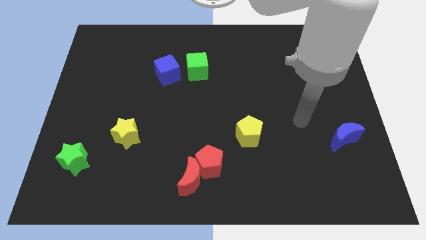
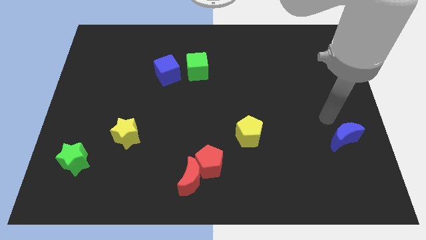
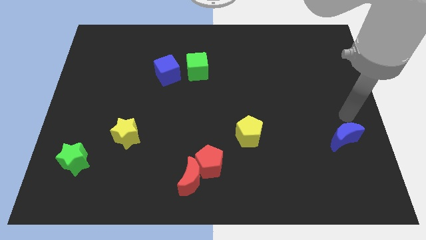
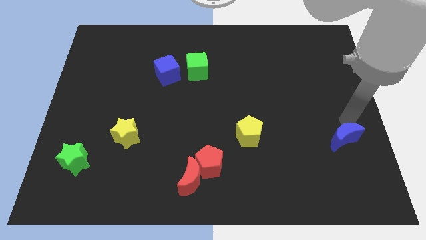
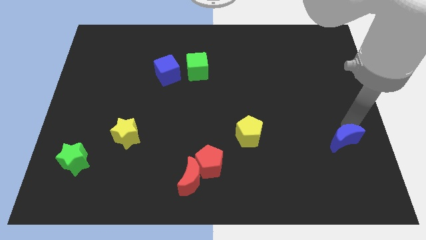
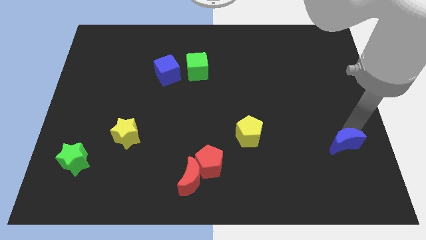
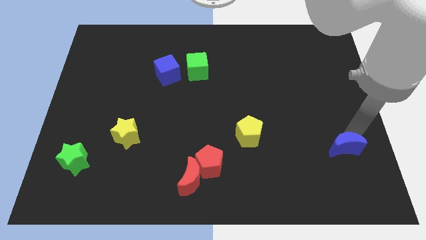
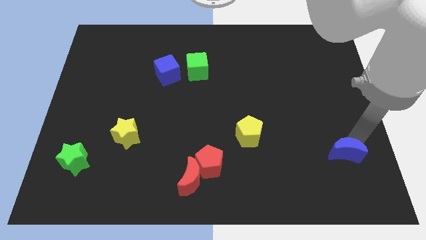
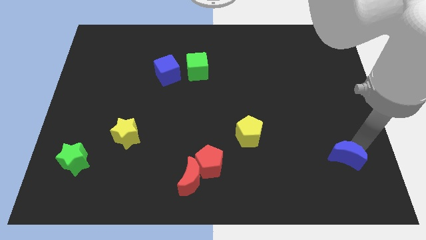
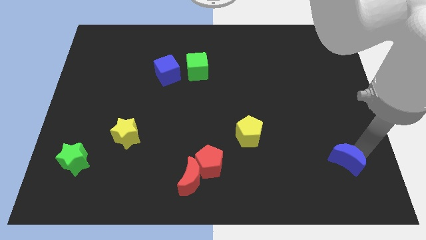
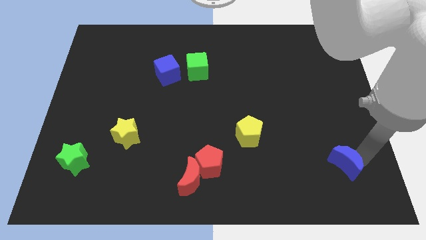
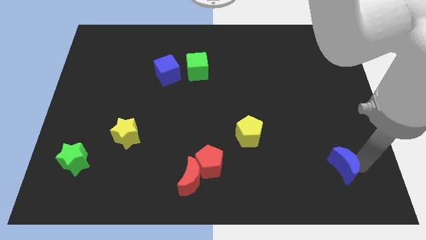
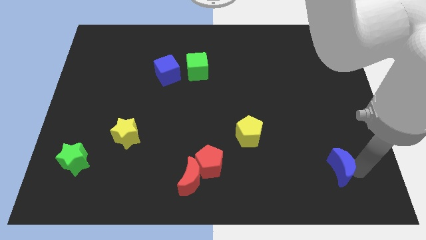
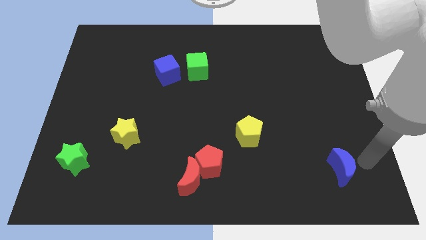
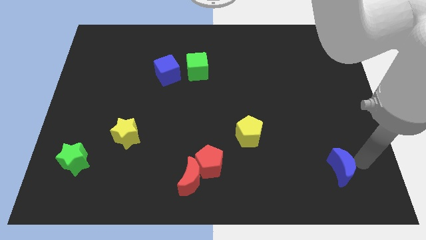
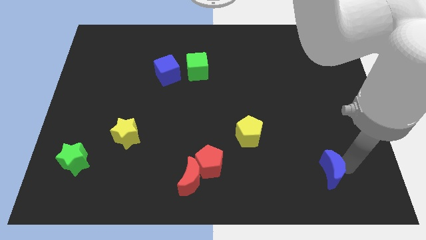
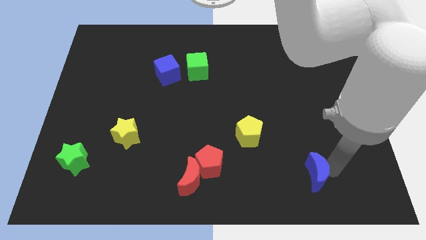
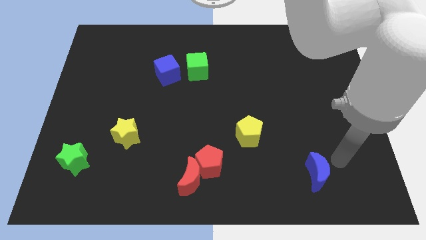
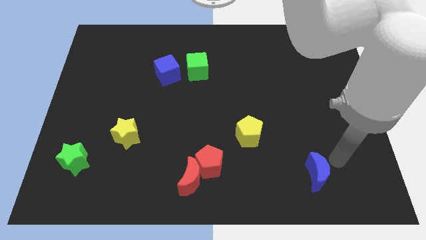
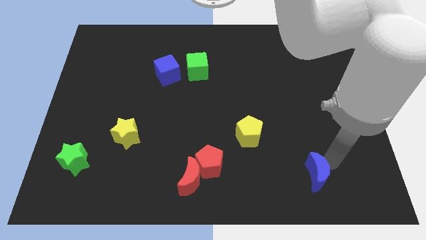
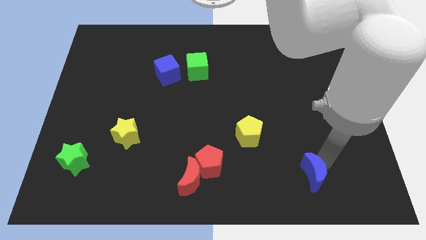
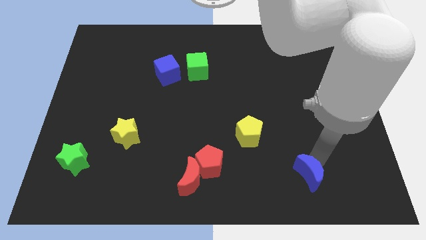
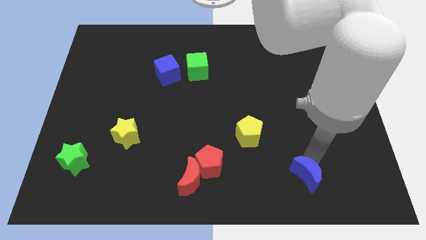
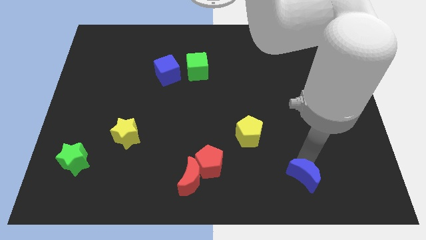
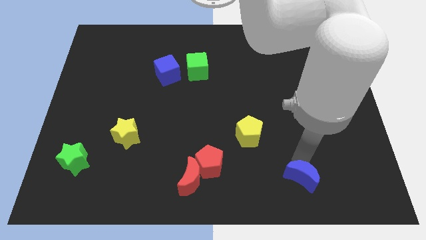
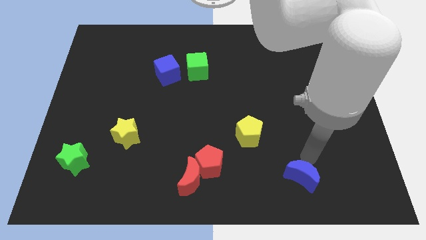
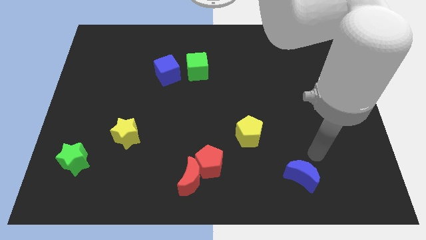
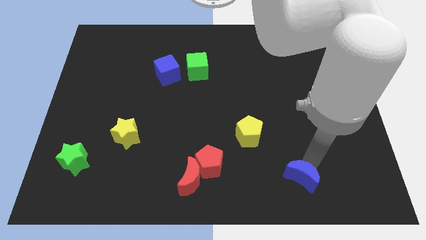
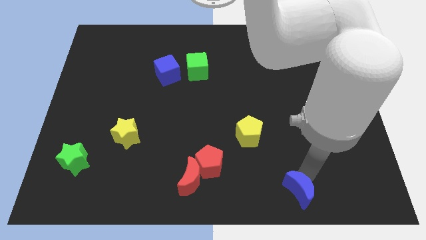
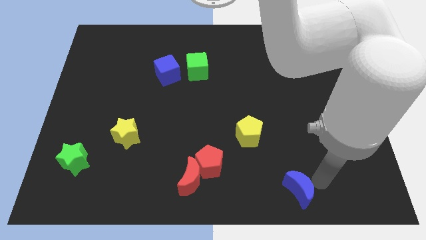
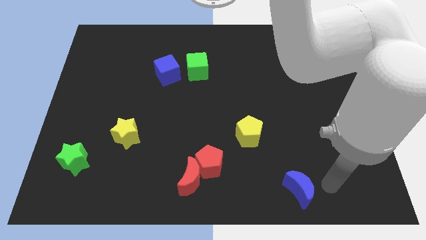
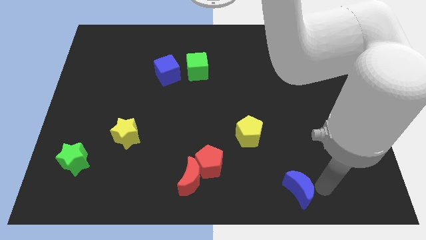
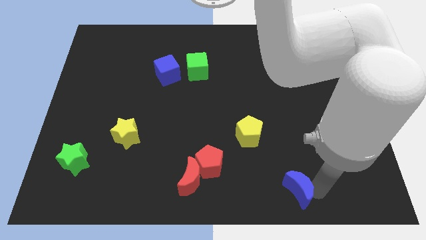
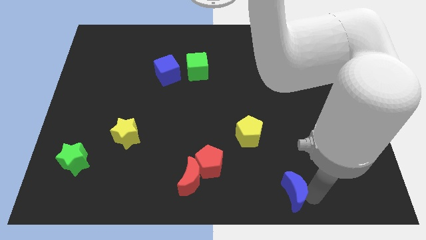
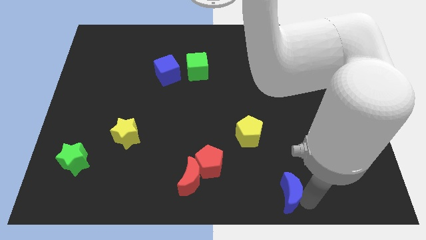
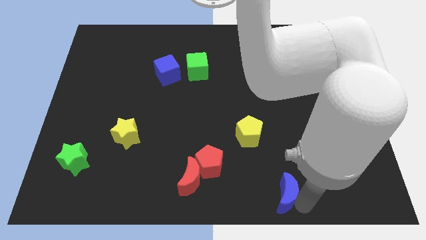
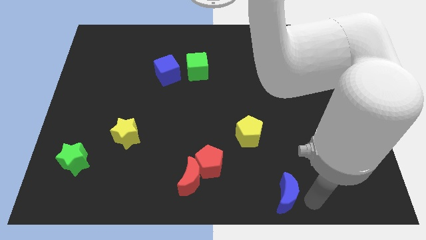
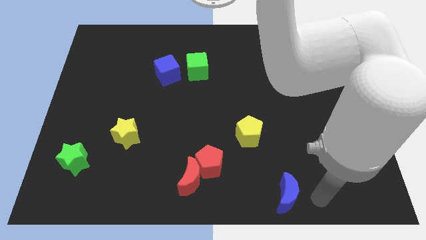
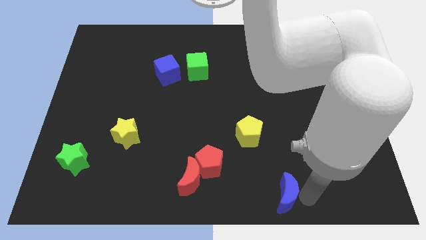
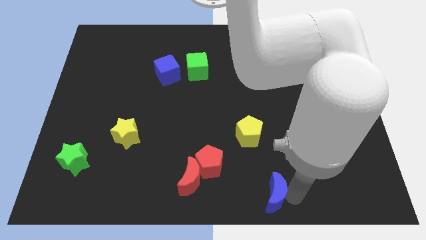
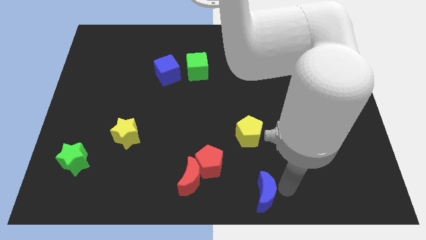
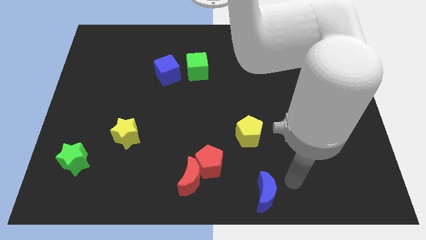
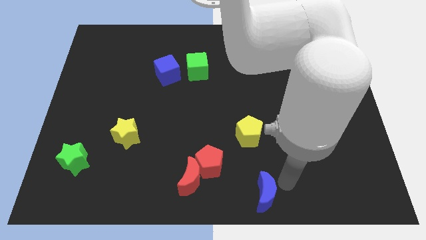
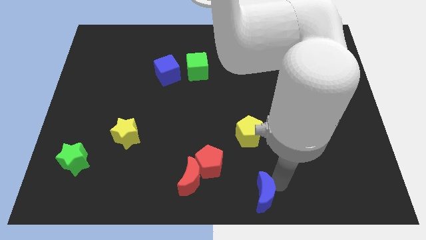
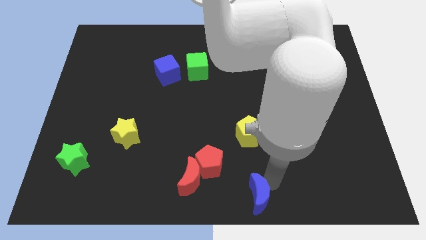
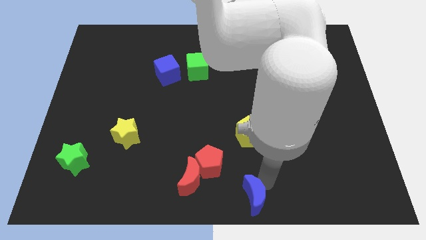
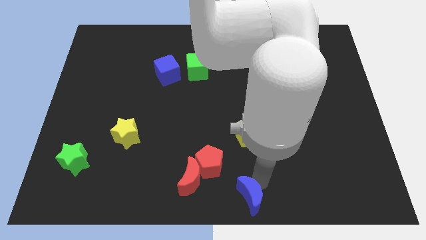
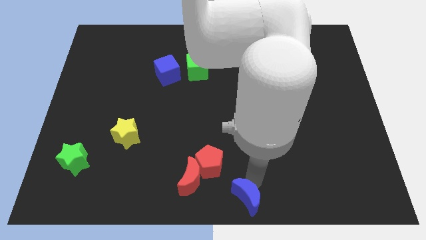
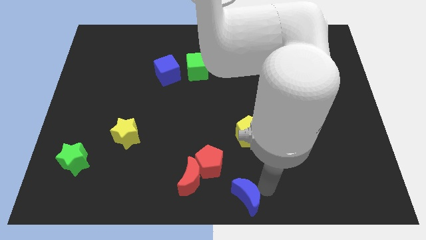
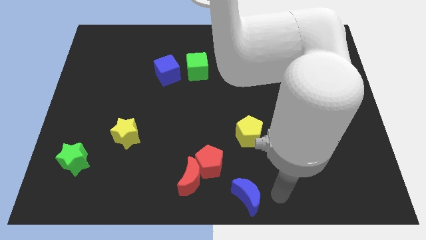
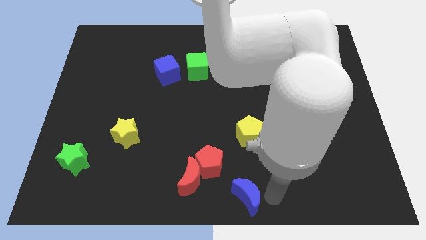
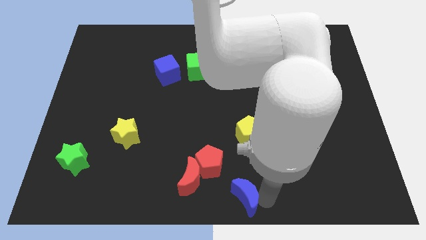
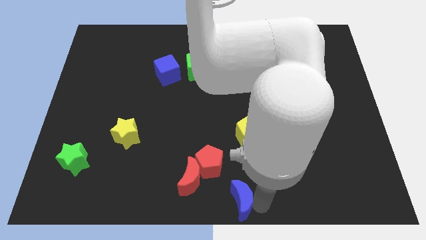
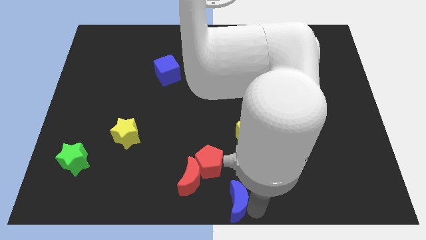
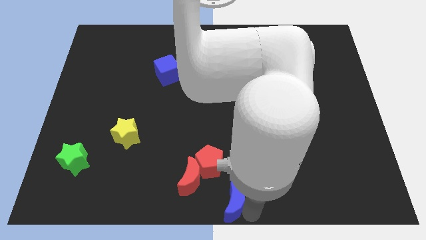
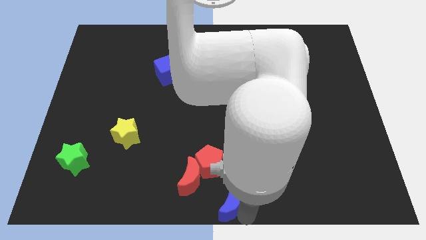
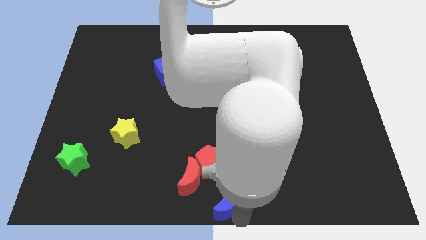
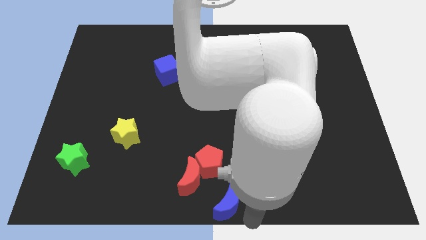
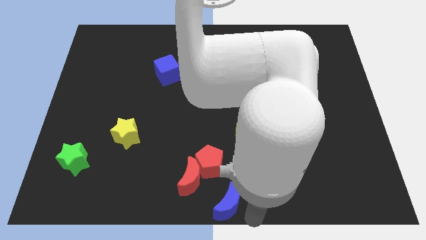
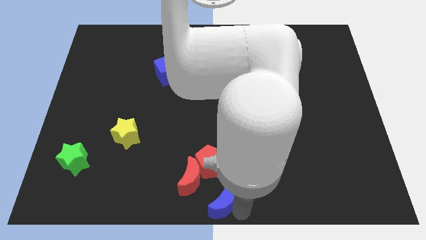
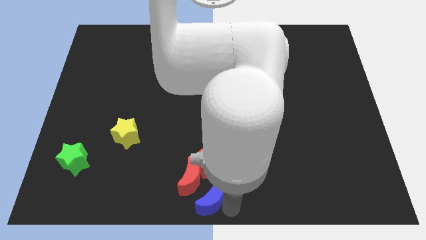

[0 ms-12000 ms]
put the blue moon next to the red moon

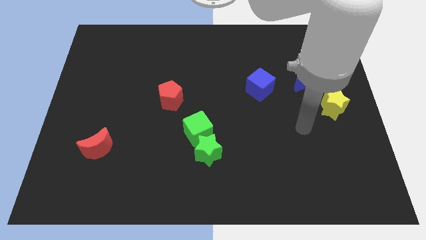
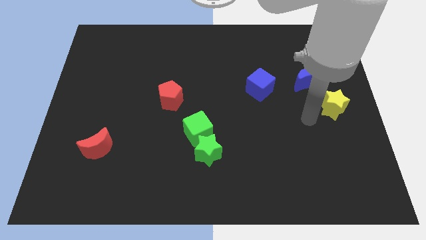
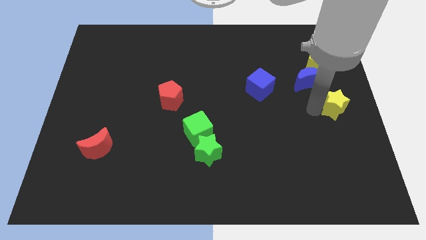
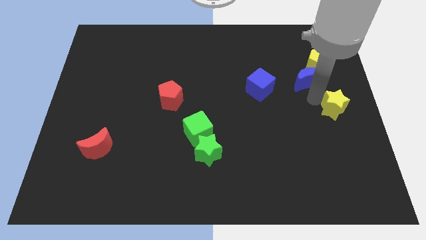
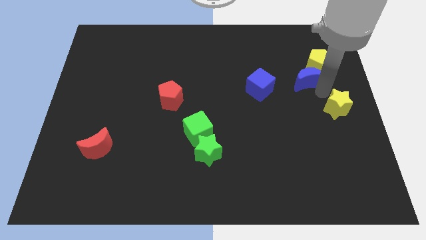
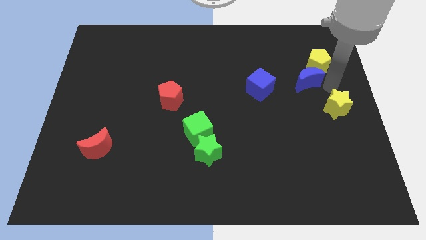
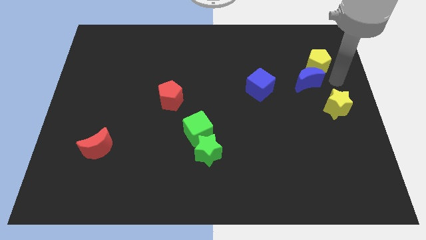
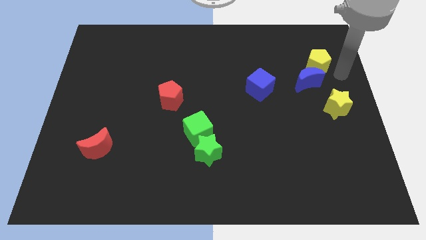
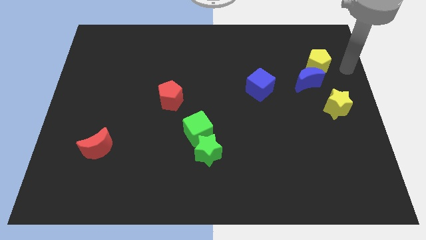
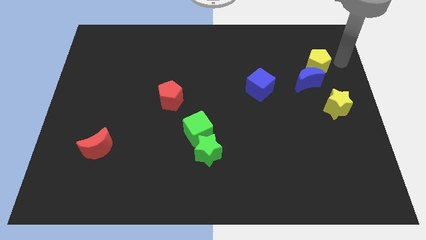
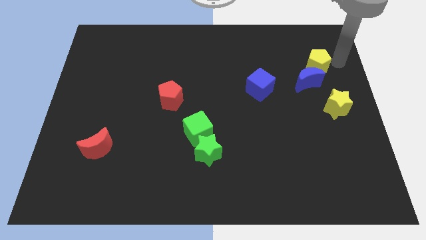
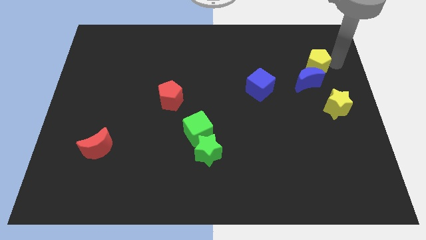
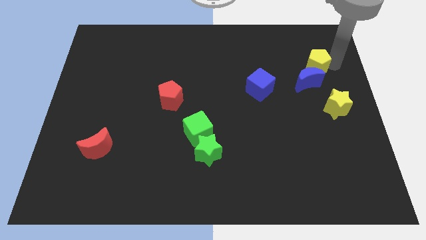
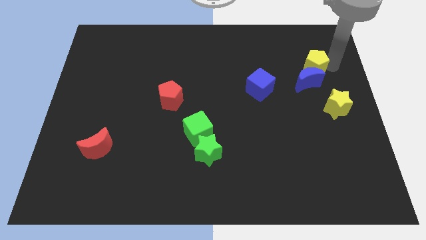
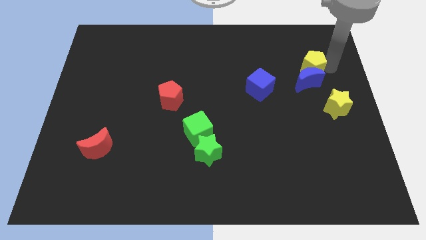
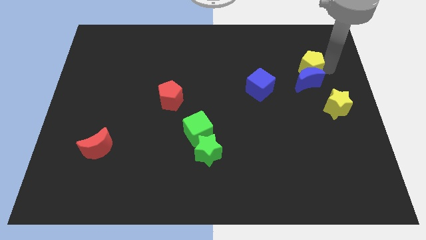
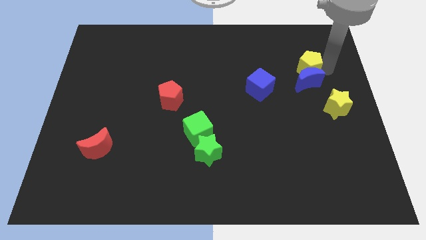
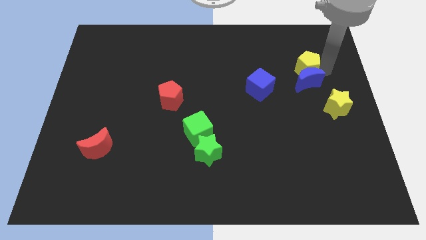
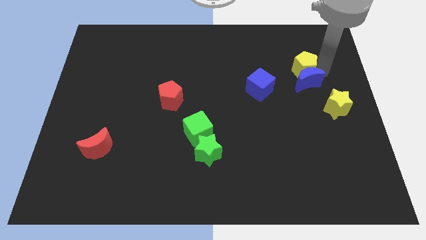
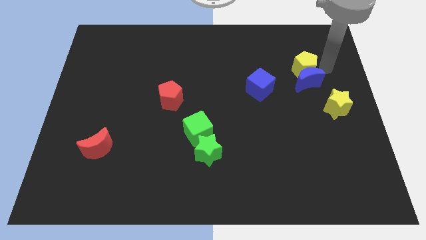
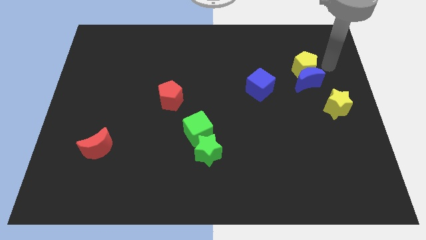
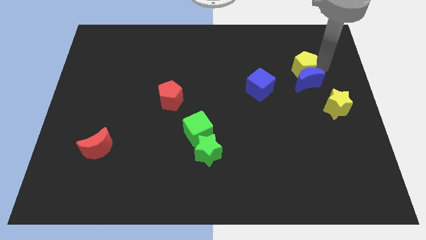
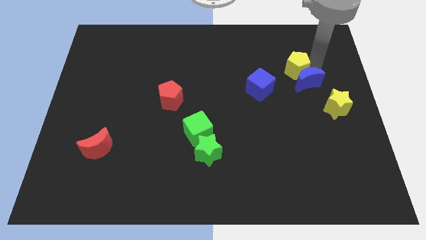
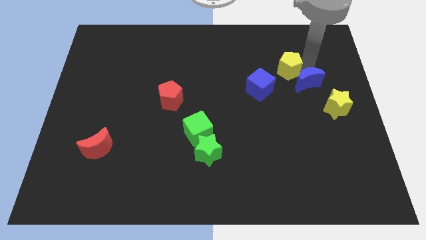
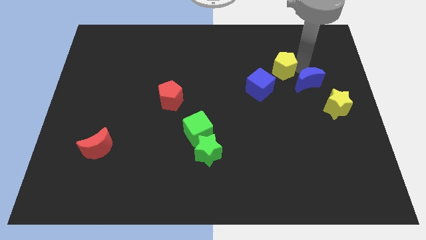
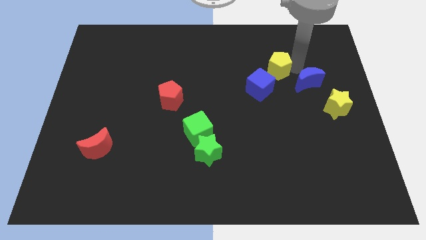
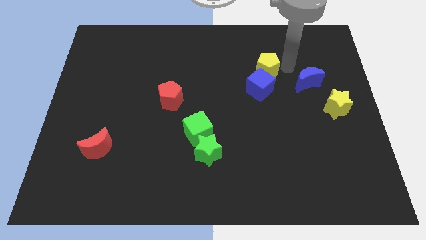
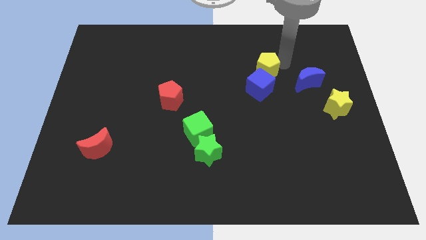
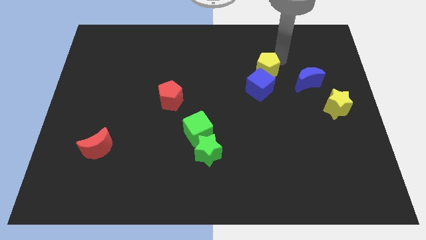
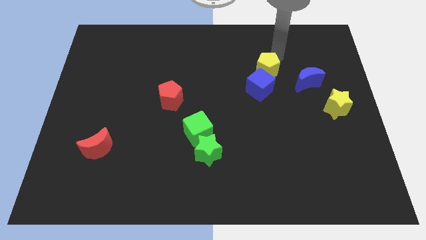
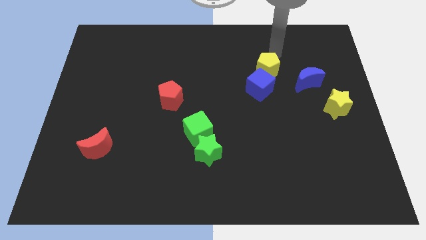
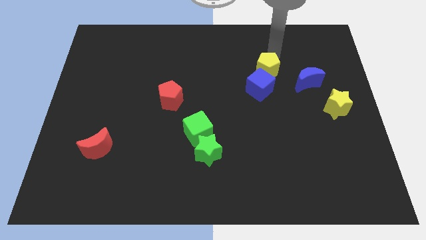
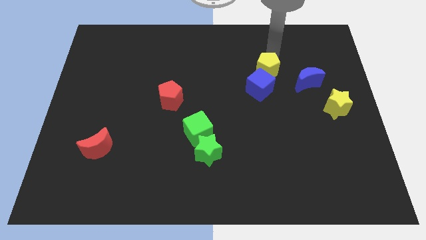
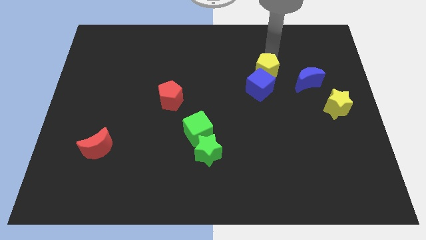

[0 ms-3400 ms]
put the yellow pentagon close to the blue cube
